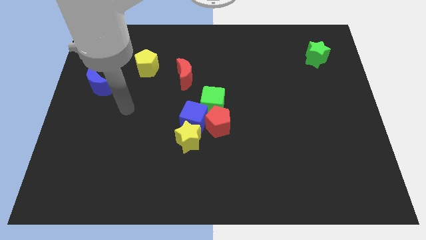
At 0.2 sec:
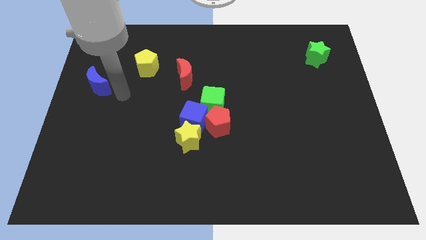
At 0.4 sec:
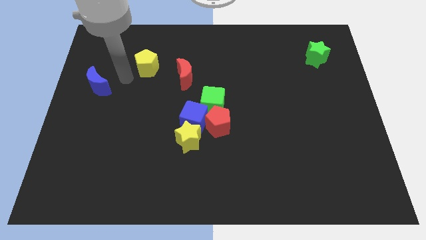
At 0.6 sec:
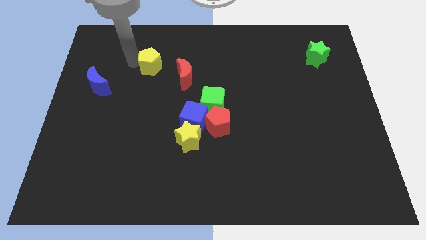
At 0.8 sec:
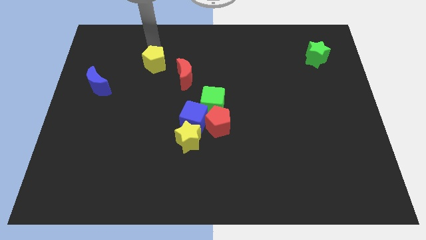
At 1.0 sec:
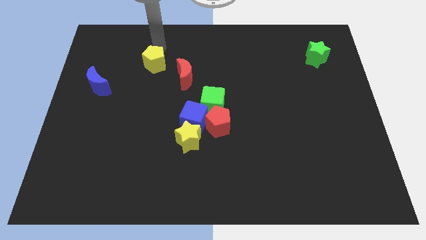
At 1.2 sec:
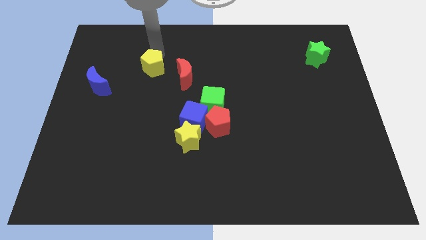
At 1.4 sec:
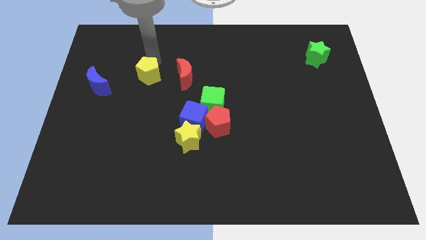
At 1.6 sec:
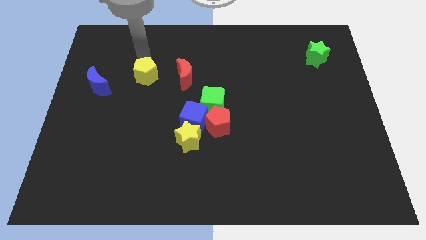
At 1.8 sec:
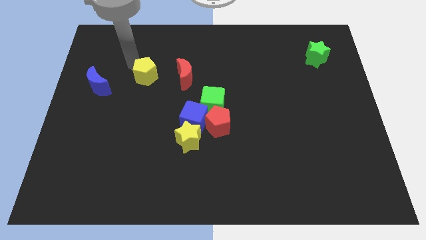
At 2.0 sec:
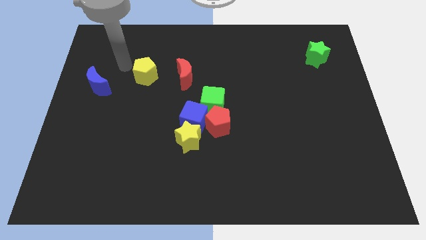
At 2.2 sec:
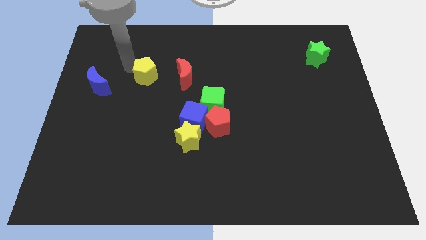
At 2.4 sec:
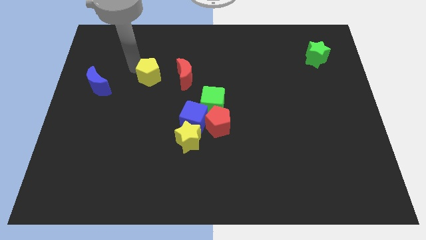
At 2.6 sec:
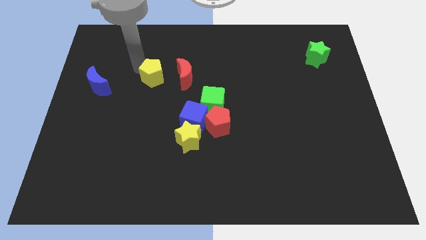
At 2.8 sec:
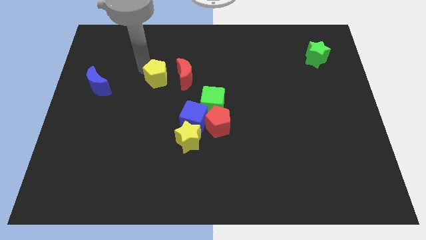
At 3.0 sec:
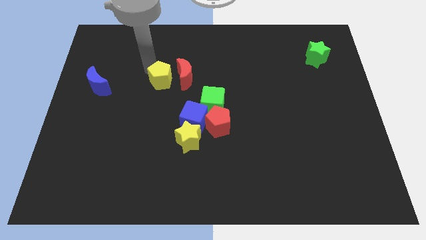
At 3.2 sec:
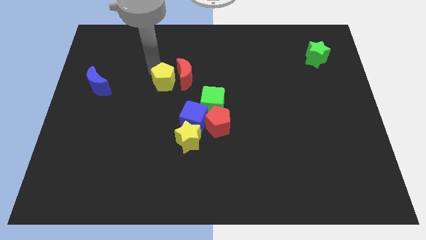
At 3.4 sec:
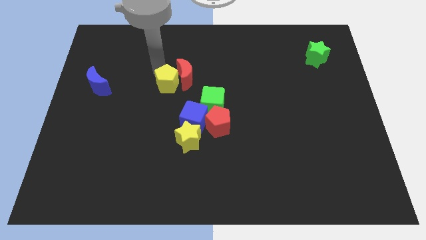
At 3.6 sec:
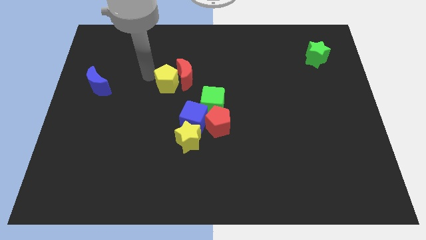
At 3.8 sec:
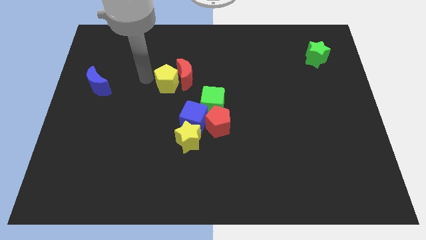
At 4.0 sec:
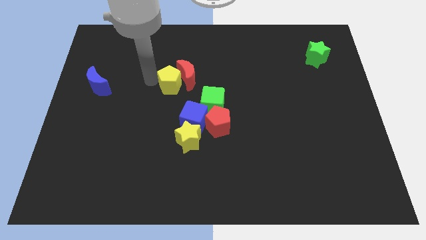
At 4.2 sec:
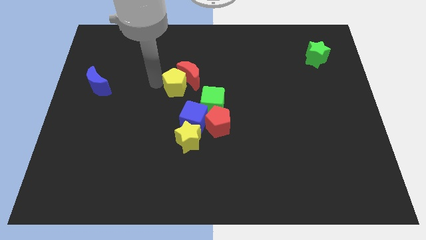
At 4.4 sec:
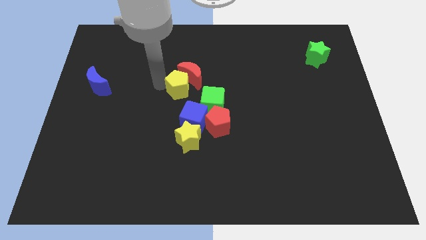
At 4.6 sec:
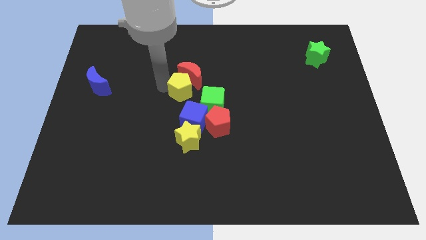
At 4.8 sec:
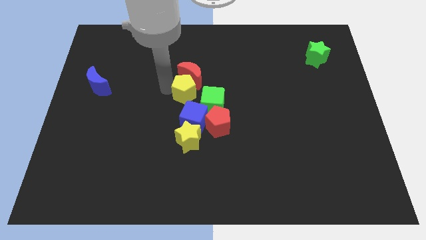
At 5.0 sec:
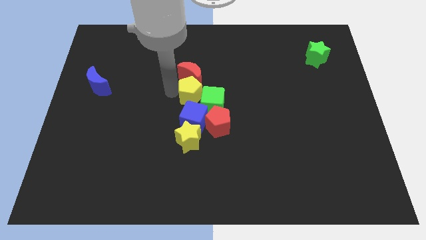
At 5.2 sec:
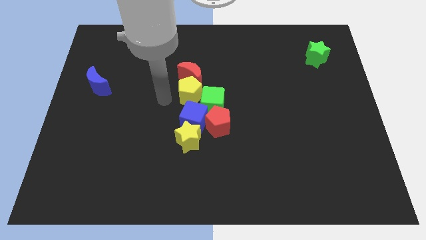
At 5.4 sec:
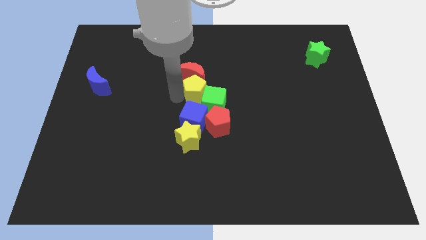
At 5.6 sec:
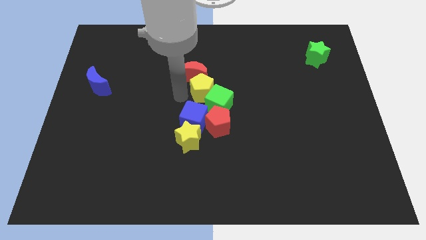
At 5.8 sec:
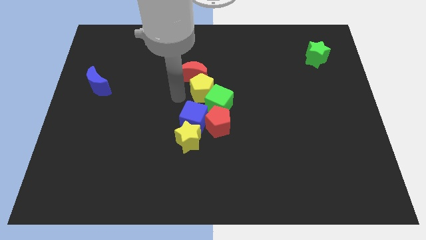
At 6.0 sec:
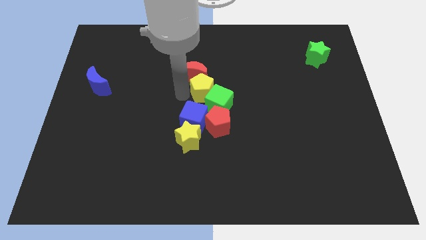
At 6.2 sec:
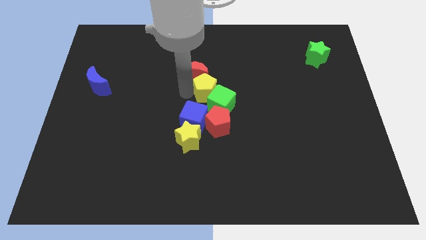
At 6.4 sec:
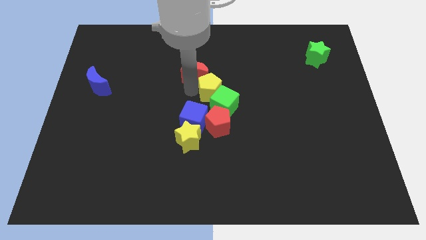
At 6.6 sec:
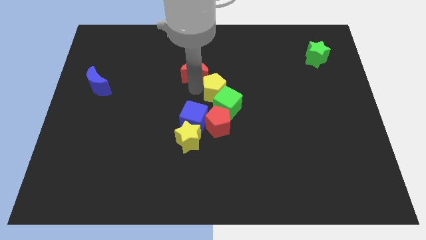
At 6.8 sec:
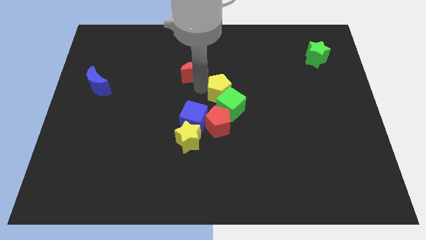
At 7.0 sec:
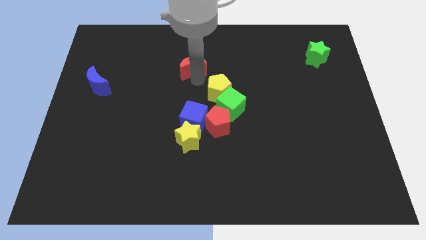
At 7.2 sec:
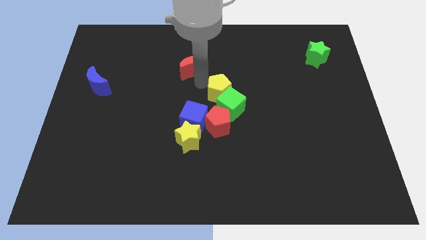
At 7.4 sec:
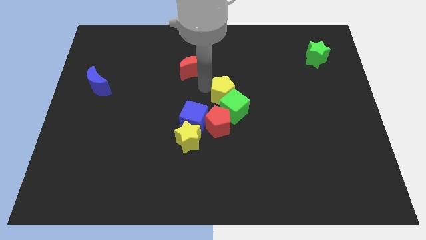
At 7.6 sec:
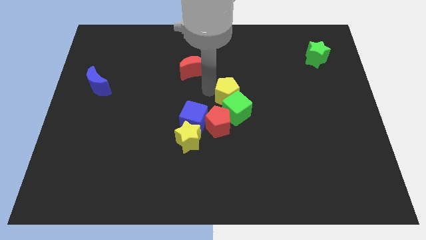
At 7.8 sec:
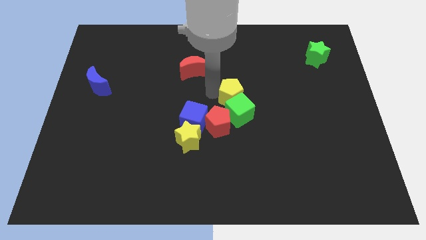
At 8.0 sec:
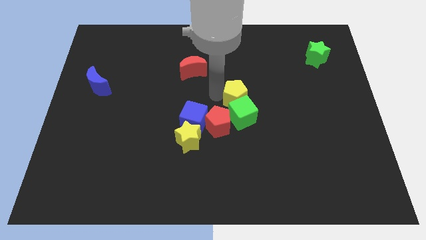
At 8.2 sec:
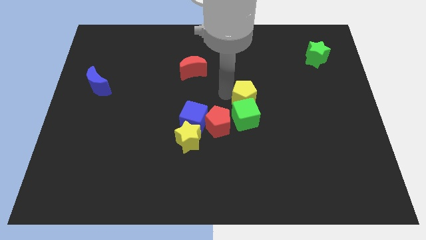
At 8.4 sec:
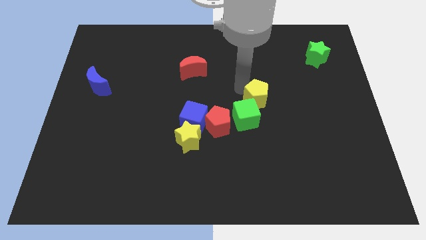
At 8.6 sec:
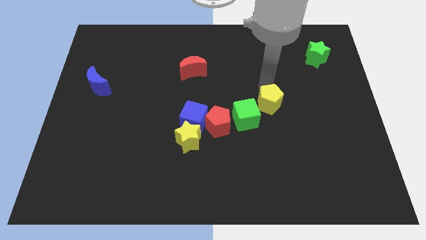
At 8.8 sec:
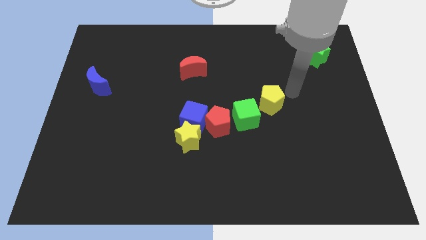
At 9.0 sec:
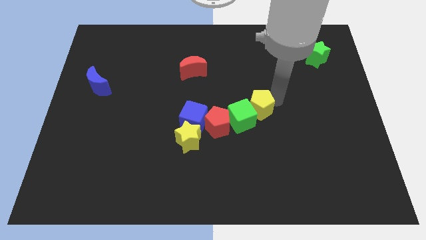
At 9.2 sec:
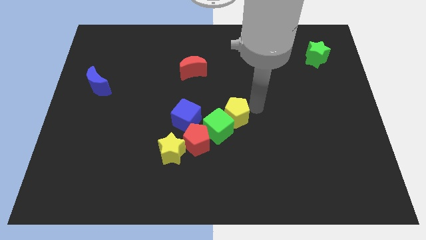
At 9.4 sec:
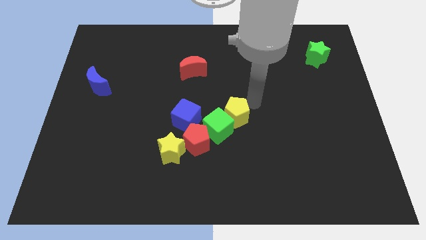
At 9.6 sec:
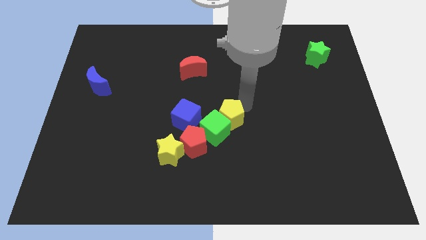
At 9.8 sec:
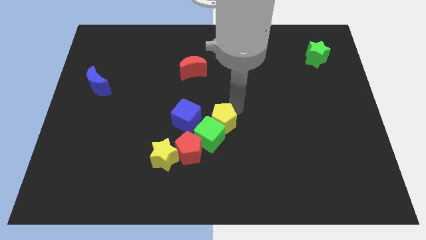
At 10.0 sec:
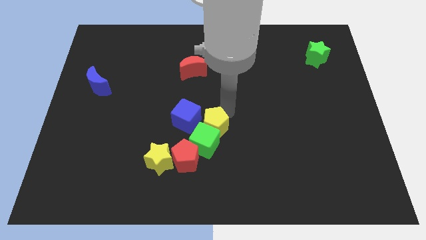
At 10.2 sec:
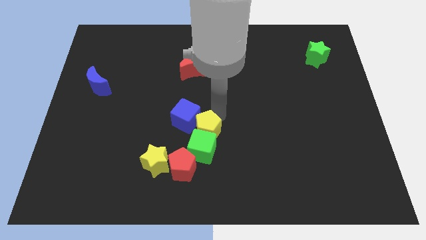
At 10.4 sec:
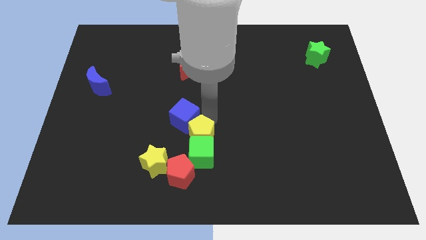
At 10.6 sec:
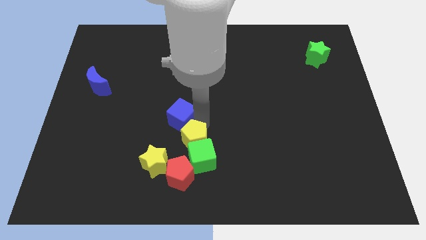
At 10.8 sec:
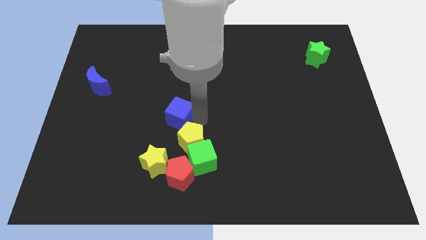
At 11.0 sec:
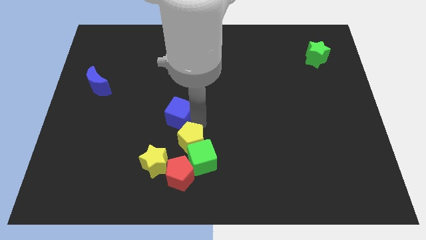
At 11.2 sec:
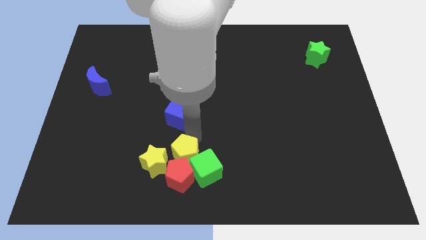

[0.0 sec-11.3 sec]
move the yellow pentagon next to the red pentagon

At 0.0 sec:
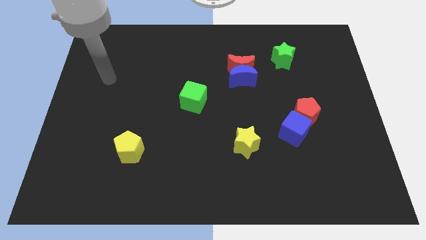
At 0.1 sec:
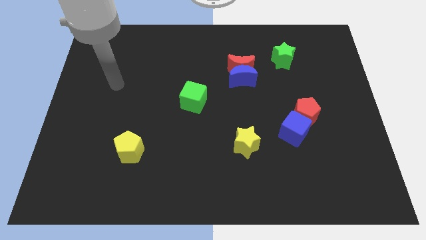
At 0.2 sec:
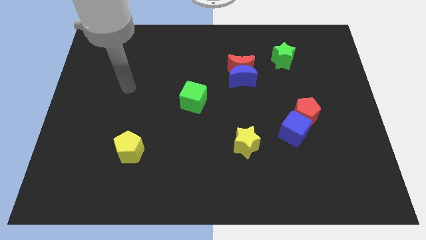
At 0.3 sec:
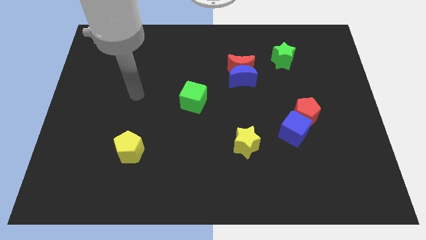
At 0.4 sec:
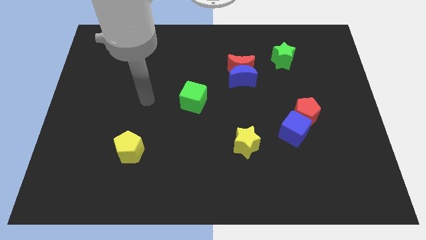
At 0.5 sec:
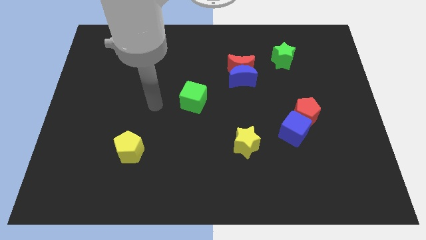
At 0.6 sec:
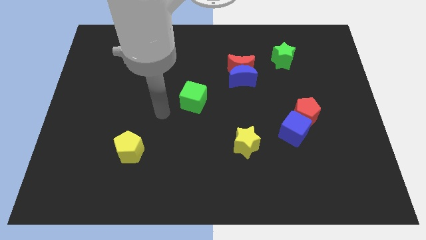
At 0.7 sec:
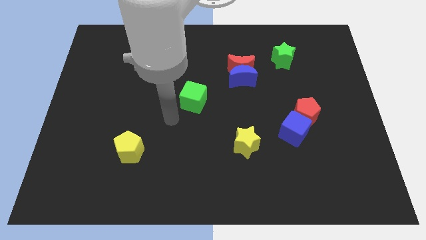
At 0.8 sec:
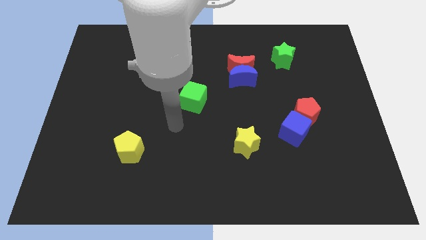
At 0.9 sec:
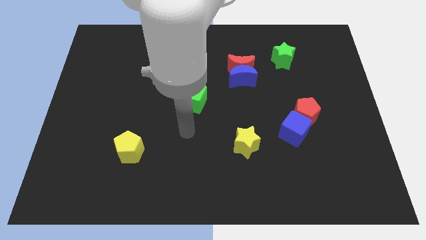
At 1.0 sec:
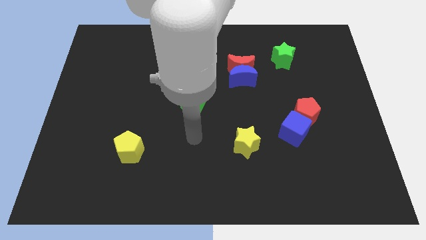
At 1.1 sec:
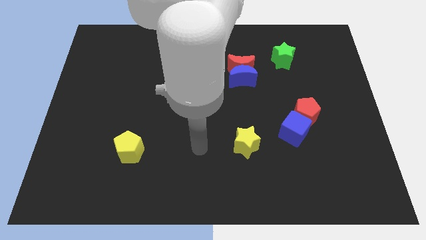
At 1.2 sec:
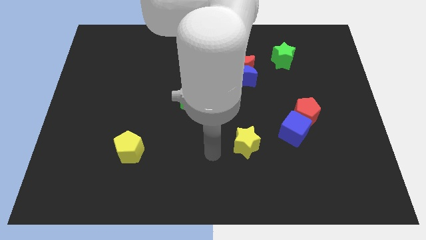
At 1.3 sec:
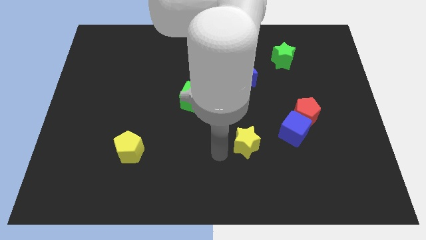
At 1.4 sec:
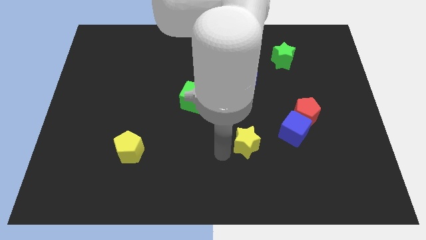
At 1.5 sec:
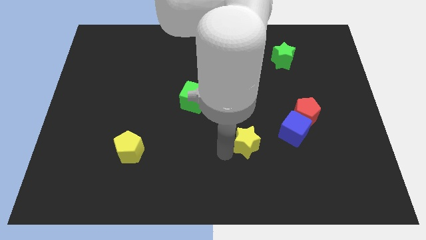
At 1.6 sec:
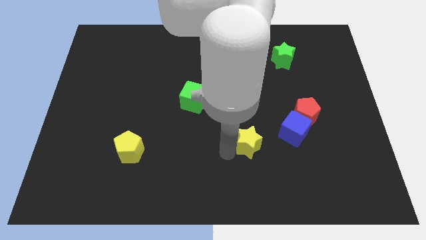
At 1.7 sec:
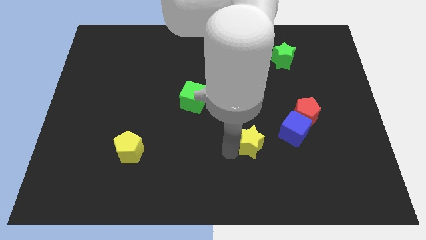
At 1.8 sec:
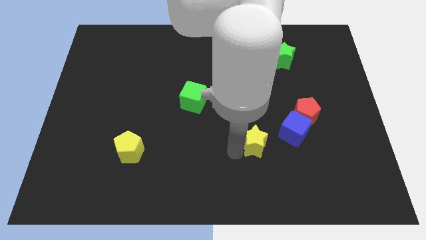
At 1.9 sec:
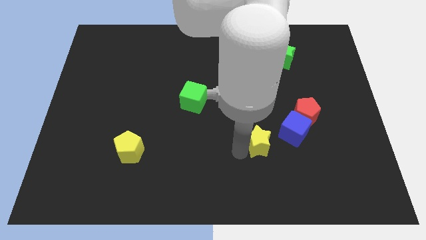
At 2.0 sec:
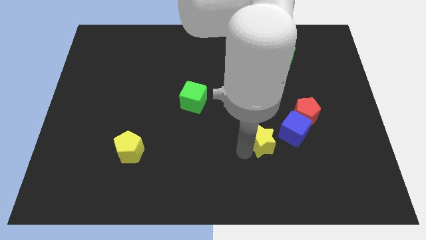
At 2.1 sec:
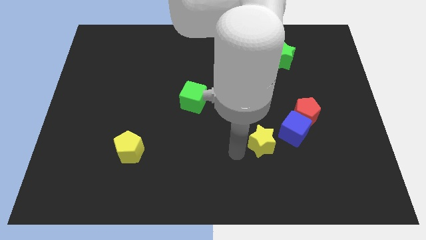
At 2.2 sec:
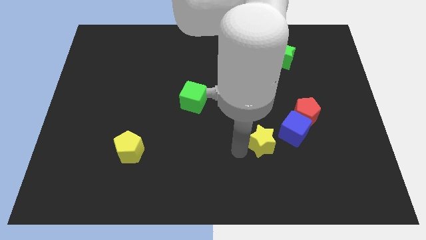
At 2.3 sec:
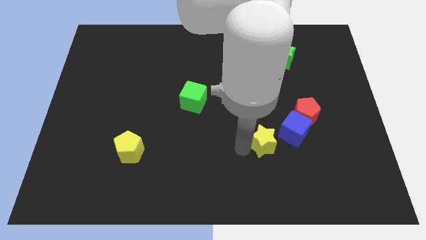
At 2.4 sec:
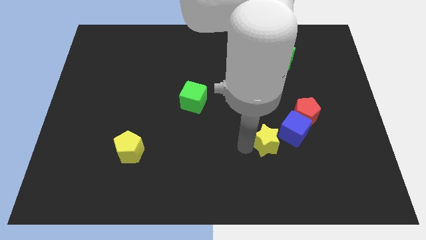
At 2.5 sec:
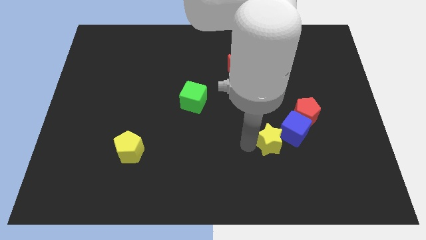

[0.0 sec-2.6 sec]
slide the yellow star to the blue cube
